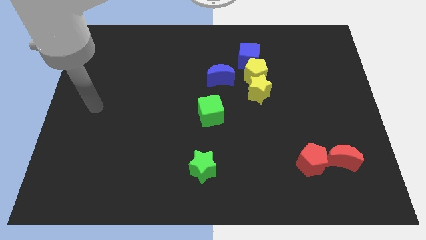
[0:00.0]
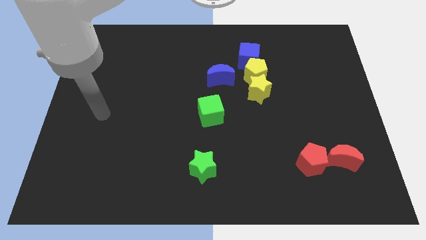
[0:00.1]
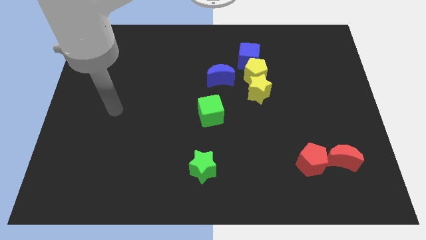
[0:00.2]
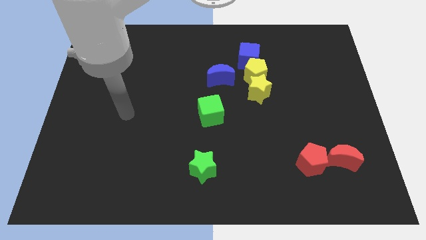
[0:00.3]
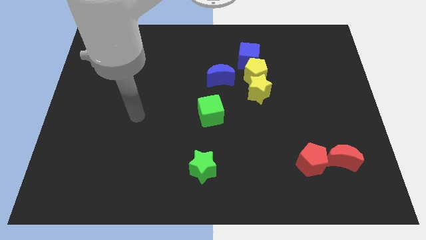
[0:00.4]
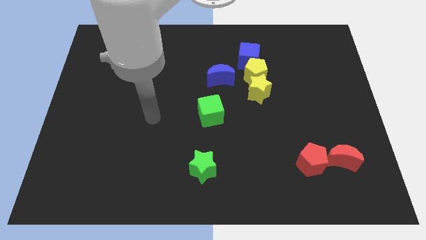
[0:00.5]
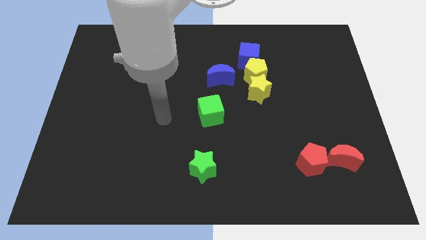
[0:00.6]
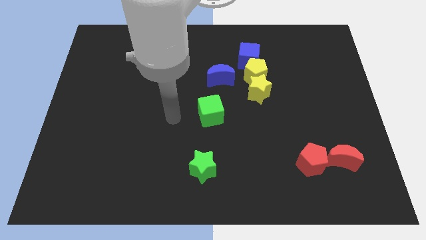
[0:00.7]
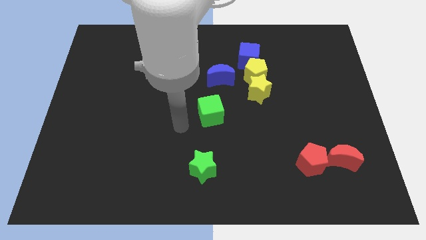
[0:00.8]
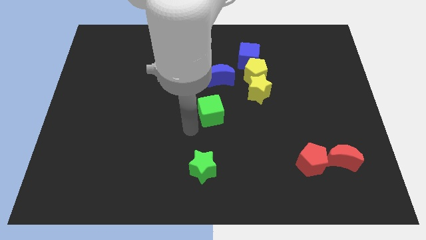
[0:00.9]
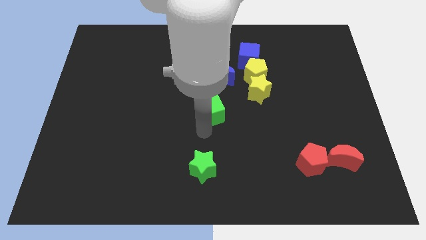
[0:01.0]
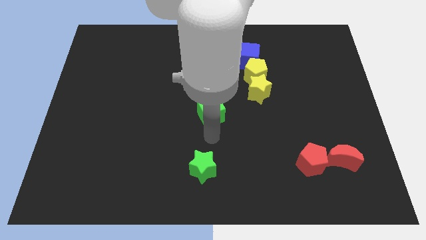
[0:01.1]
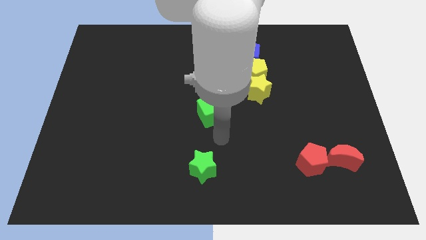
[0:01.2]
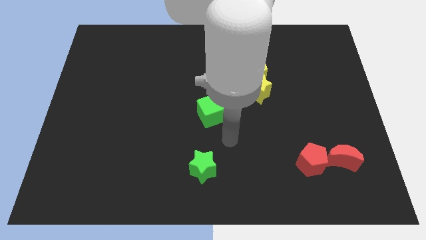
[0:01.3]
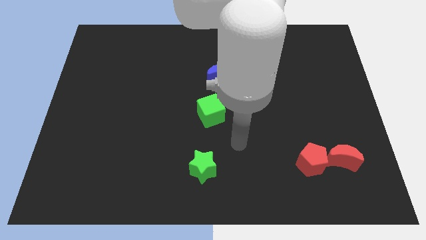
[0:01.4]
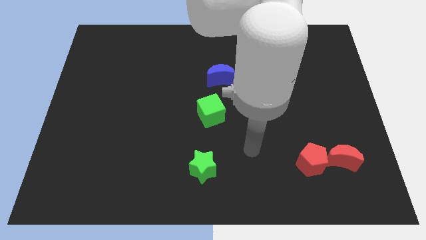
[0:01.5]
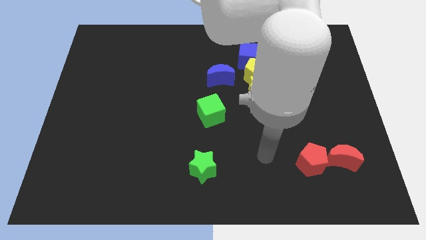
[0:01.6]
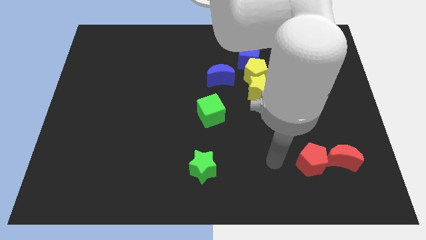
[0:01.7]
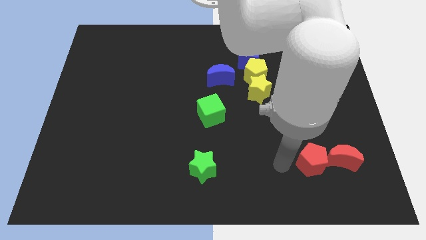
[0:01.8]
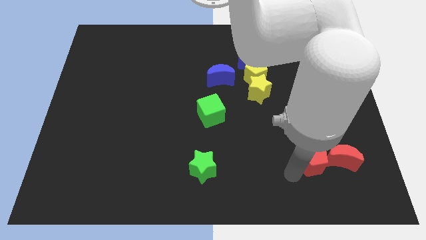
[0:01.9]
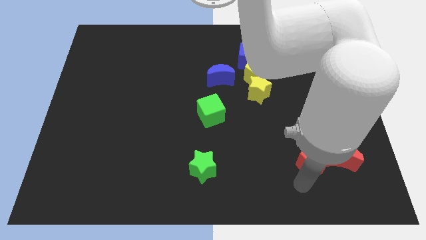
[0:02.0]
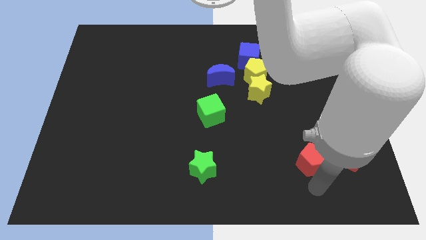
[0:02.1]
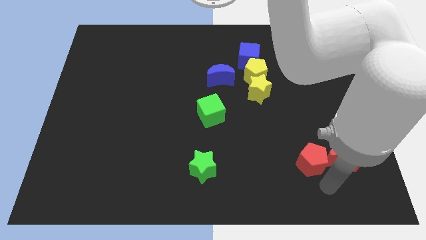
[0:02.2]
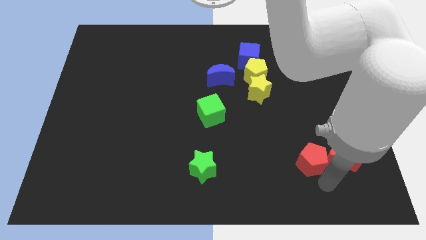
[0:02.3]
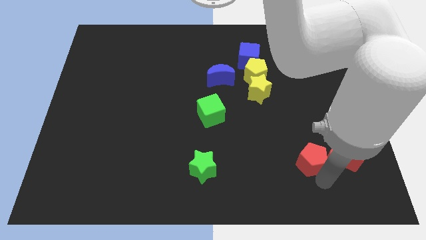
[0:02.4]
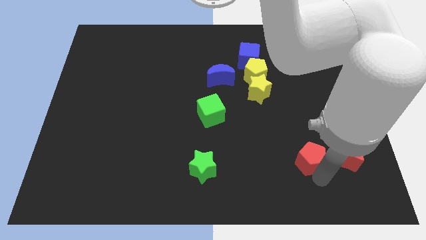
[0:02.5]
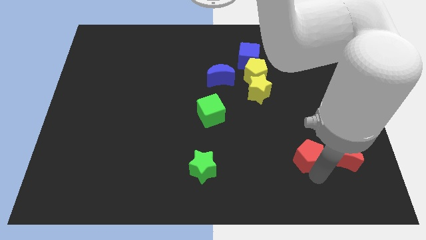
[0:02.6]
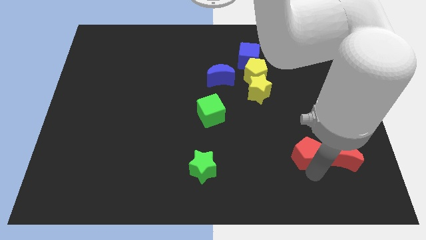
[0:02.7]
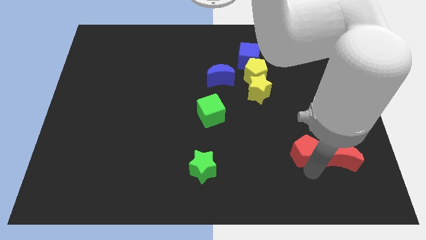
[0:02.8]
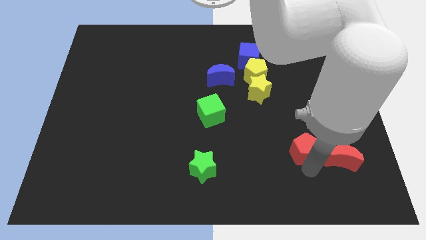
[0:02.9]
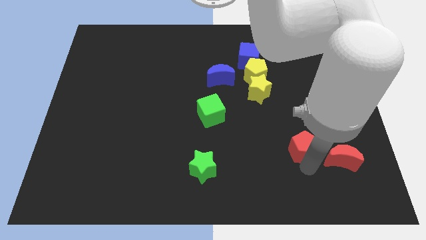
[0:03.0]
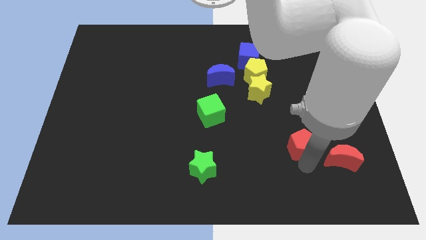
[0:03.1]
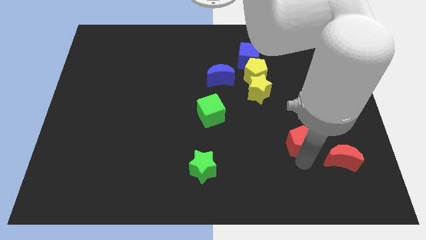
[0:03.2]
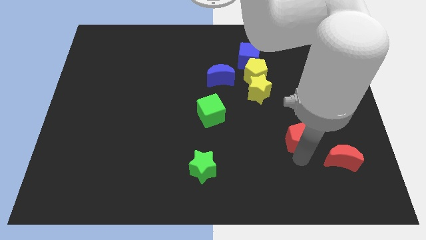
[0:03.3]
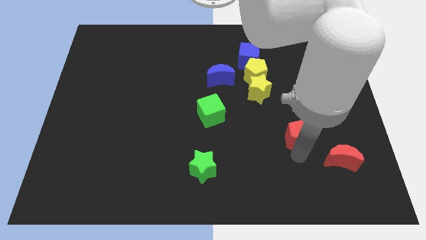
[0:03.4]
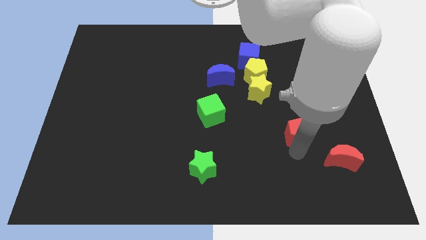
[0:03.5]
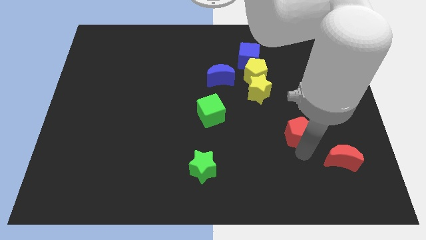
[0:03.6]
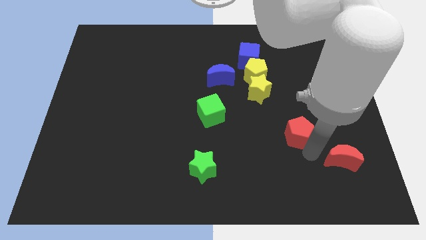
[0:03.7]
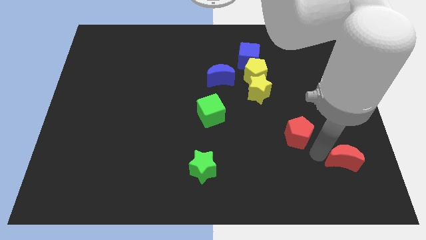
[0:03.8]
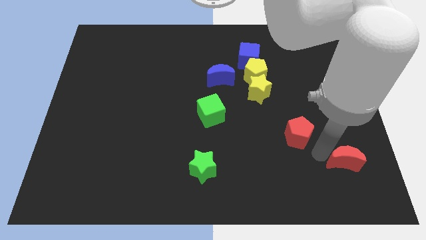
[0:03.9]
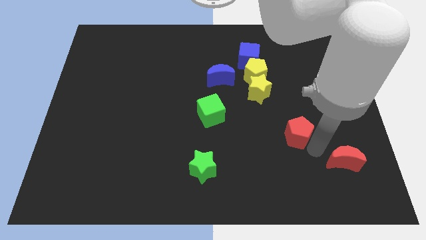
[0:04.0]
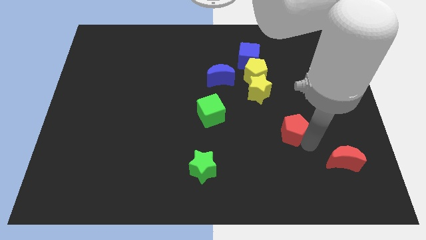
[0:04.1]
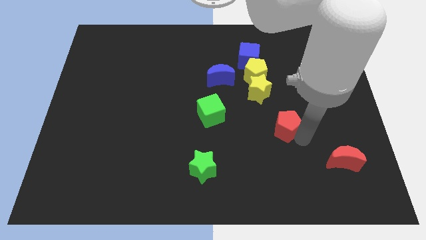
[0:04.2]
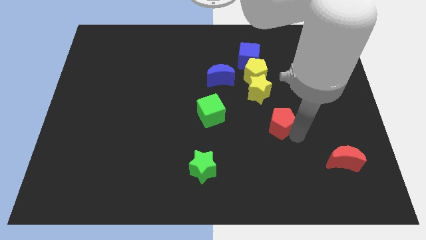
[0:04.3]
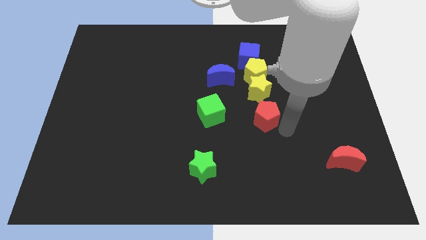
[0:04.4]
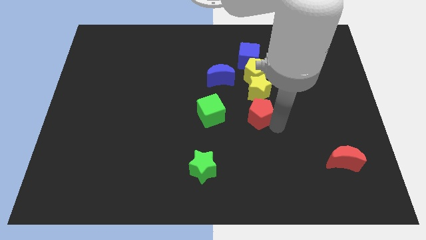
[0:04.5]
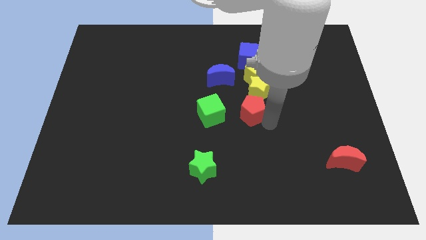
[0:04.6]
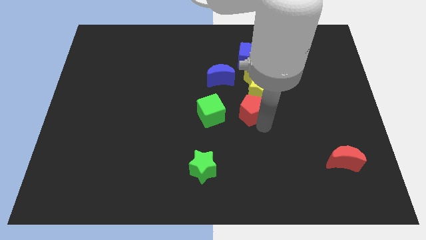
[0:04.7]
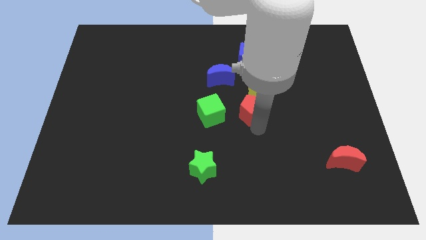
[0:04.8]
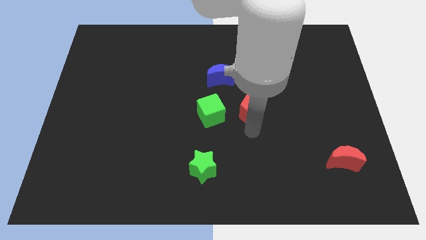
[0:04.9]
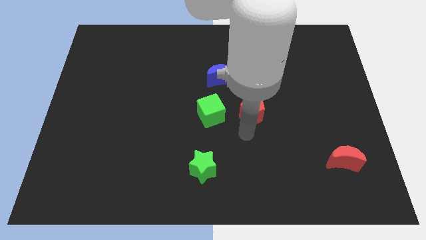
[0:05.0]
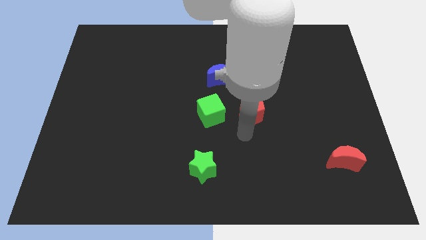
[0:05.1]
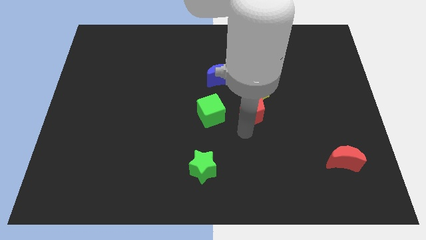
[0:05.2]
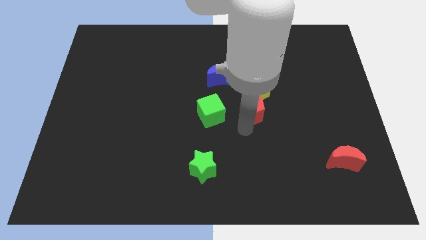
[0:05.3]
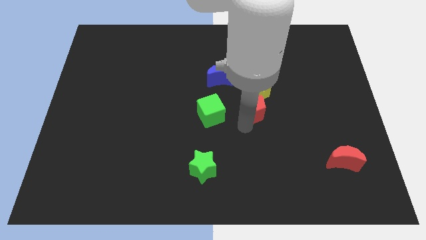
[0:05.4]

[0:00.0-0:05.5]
push the red pentagon next to the yellow star

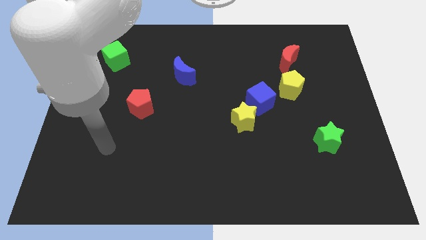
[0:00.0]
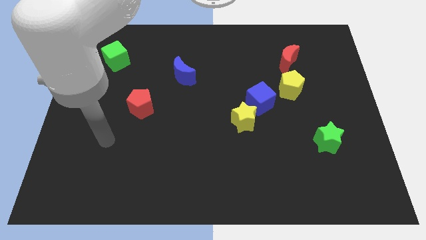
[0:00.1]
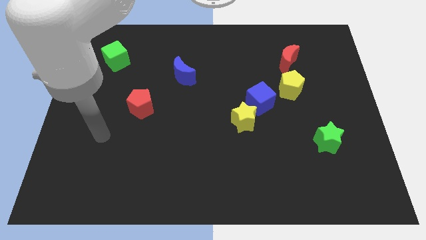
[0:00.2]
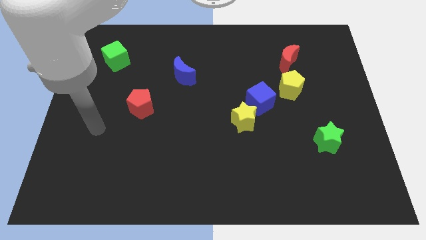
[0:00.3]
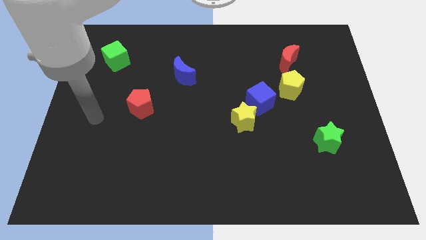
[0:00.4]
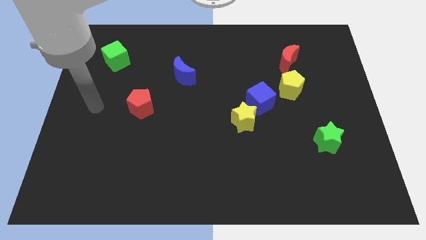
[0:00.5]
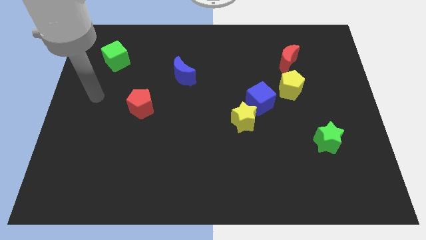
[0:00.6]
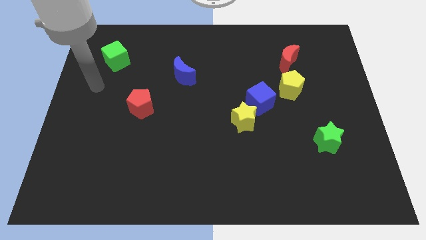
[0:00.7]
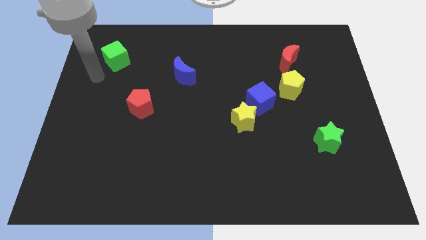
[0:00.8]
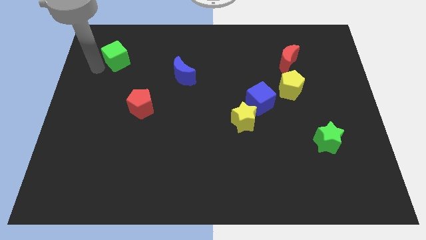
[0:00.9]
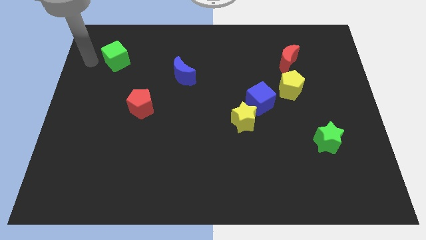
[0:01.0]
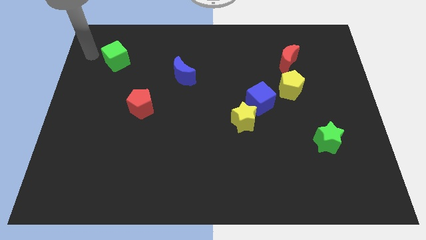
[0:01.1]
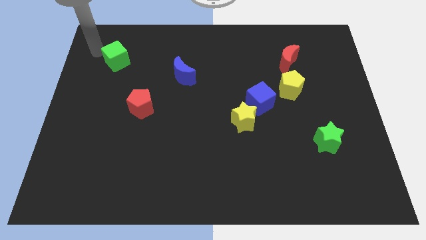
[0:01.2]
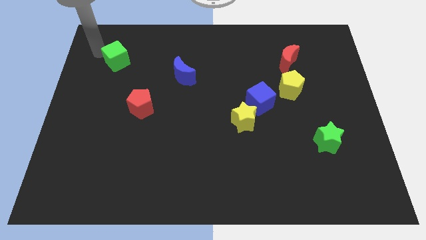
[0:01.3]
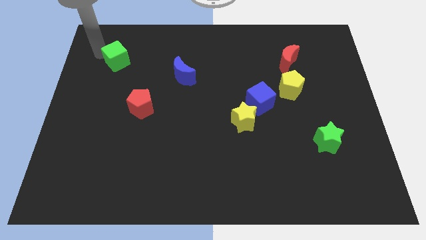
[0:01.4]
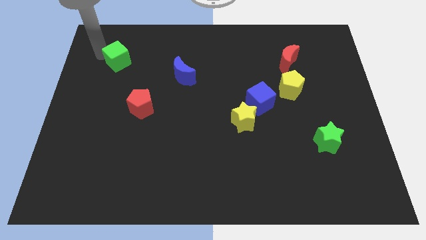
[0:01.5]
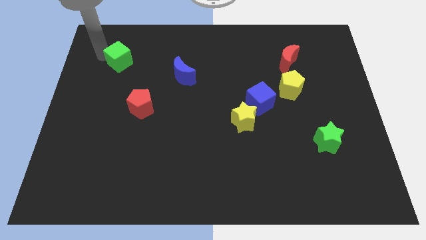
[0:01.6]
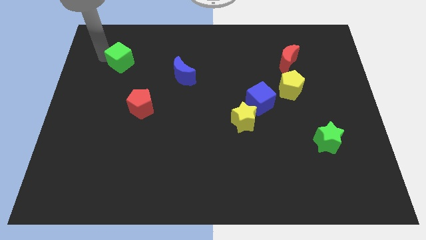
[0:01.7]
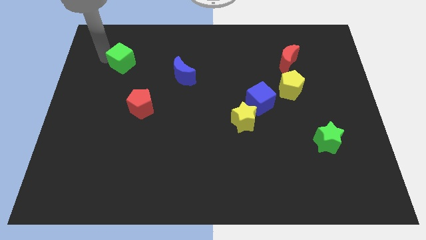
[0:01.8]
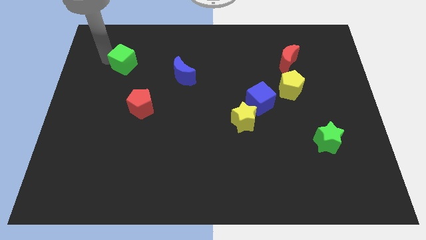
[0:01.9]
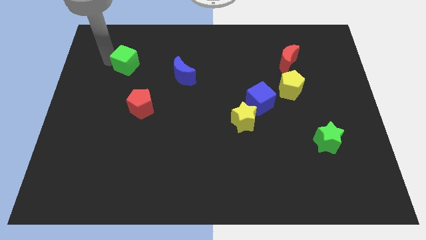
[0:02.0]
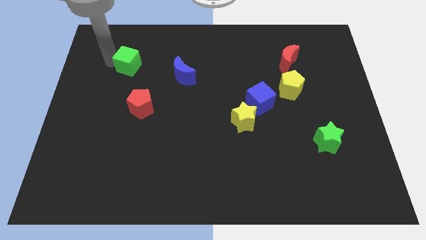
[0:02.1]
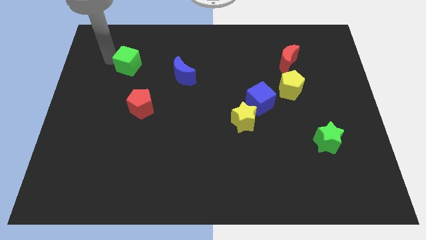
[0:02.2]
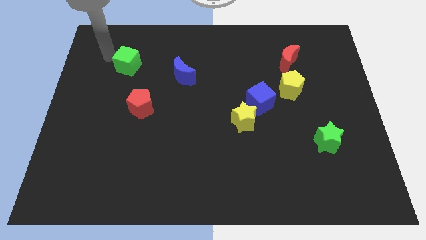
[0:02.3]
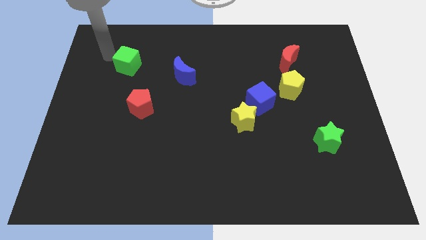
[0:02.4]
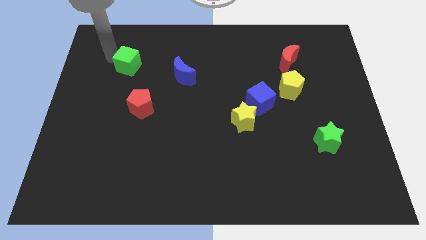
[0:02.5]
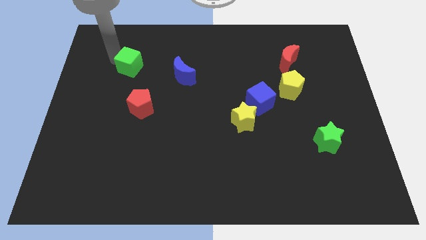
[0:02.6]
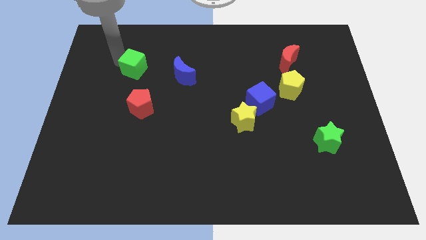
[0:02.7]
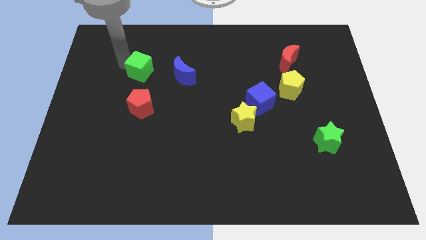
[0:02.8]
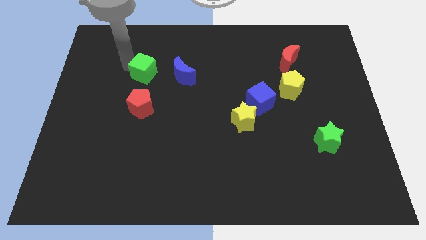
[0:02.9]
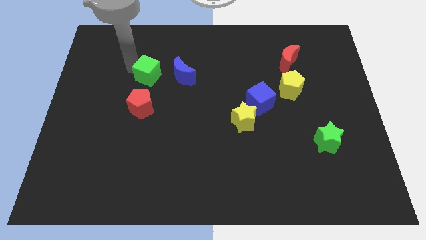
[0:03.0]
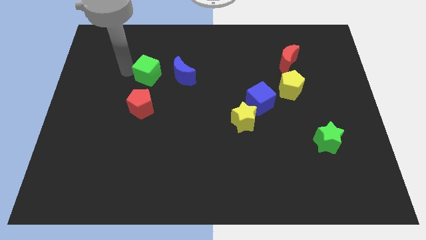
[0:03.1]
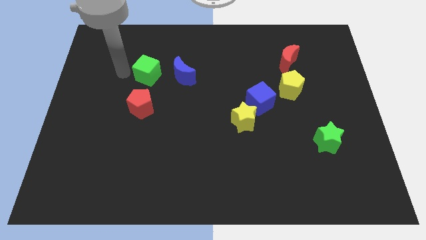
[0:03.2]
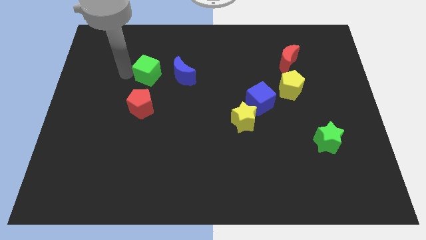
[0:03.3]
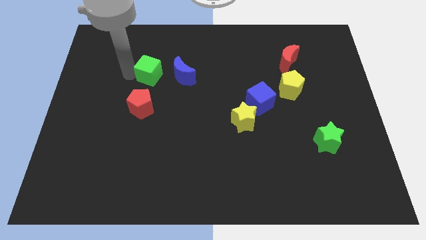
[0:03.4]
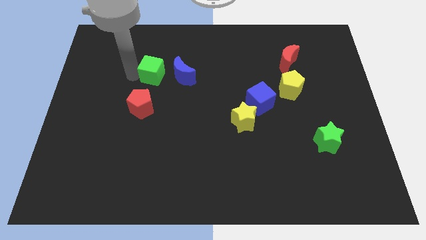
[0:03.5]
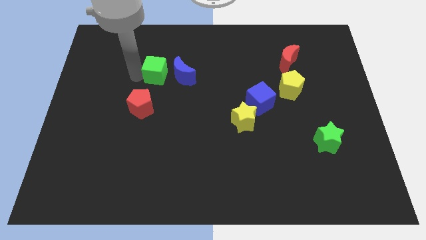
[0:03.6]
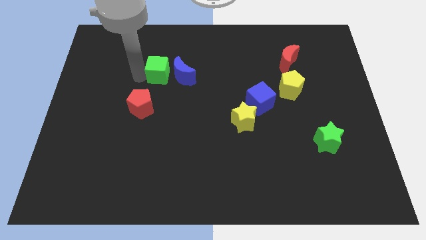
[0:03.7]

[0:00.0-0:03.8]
slide the green cube to the blue moon
